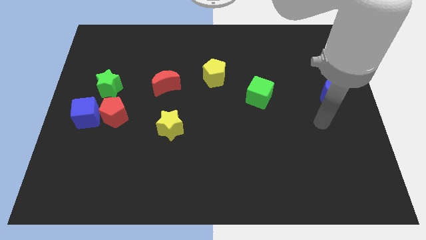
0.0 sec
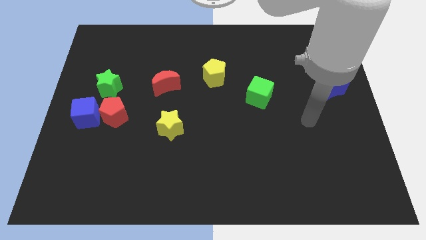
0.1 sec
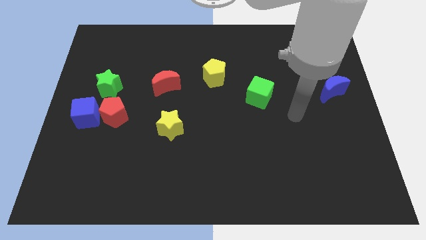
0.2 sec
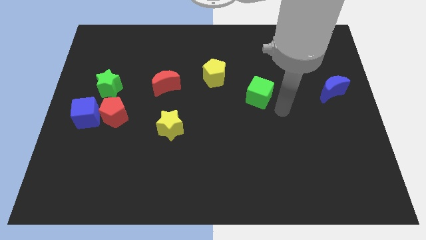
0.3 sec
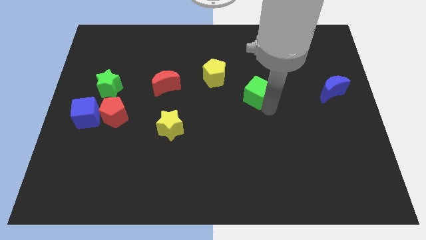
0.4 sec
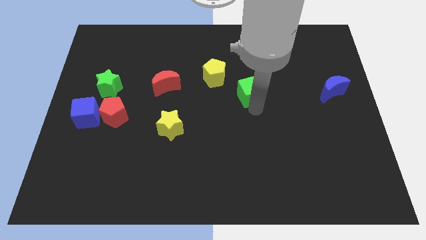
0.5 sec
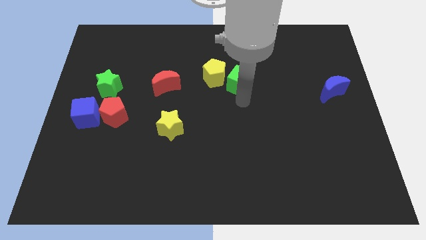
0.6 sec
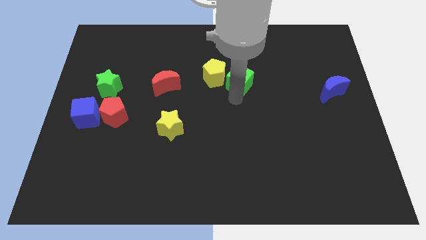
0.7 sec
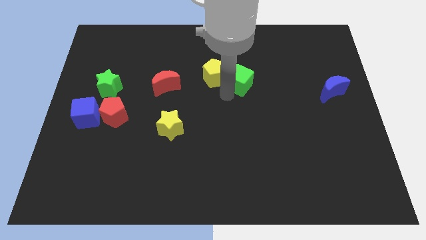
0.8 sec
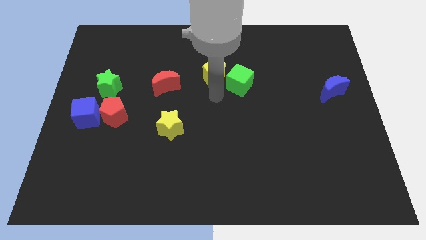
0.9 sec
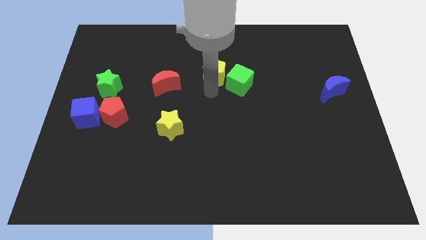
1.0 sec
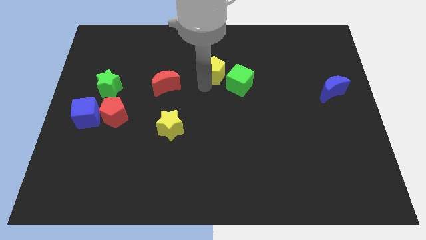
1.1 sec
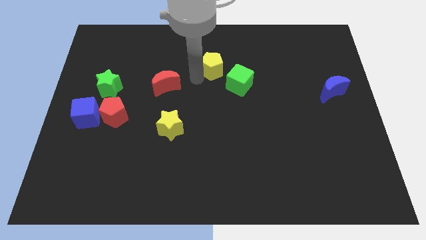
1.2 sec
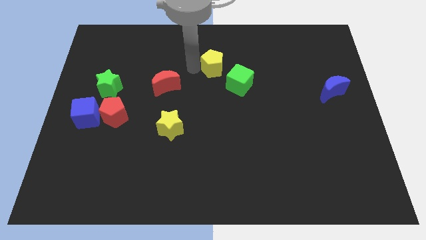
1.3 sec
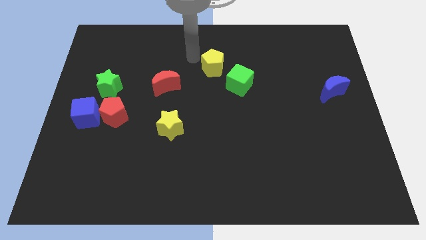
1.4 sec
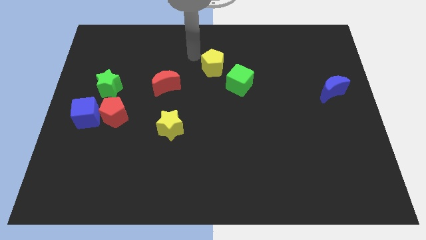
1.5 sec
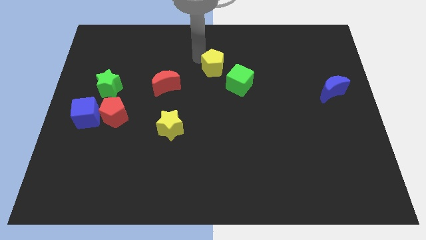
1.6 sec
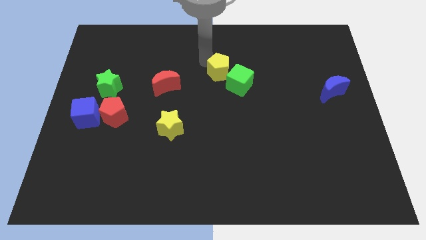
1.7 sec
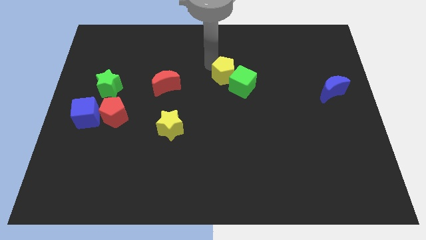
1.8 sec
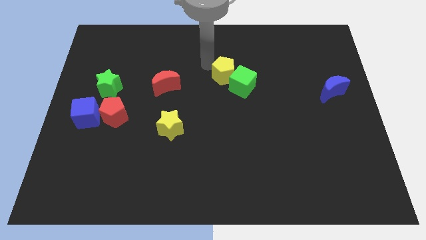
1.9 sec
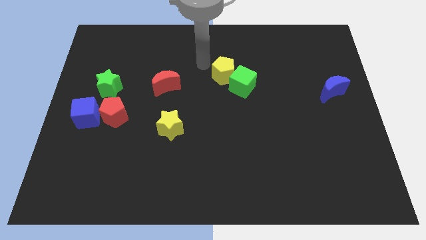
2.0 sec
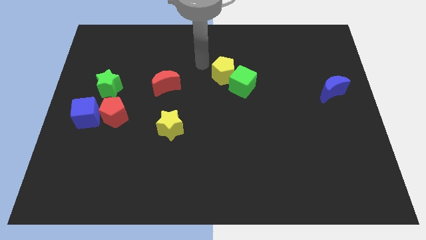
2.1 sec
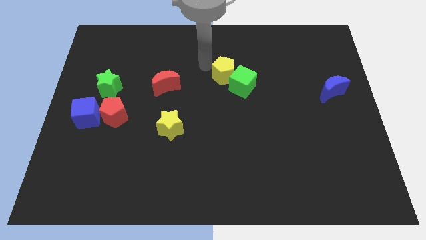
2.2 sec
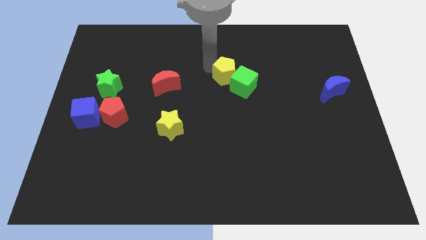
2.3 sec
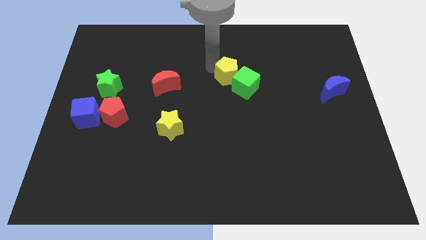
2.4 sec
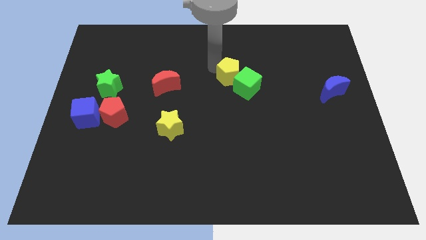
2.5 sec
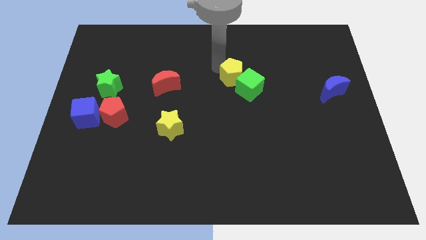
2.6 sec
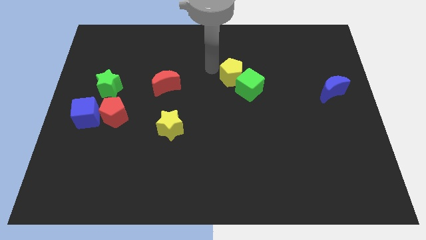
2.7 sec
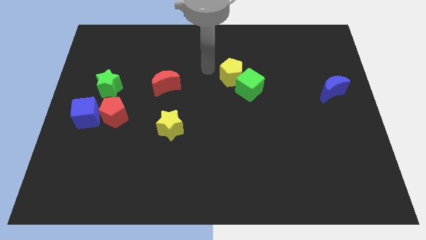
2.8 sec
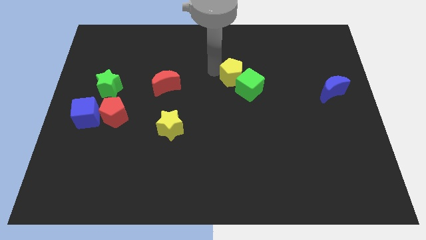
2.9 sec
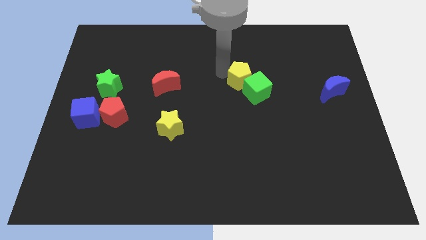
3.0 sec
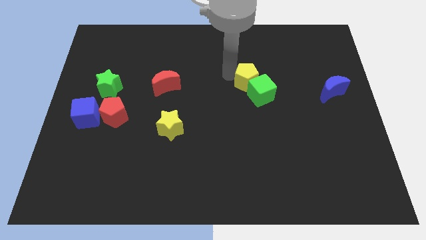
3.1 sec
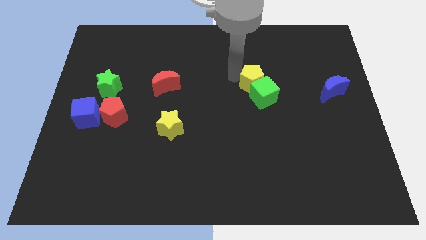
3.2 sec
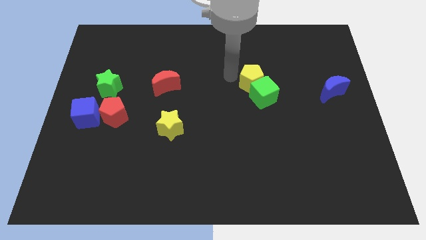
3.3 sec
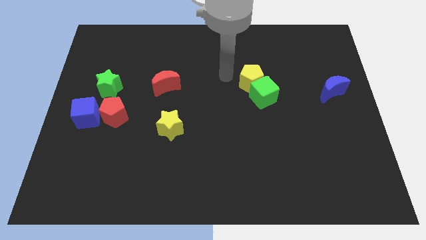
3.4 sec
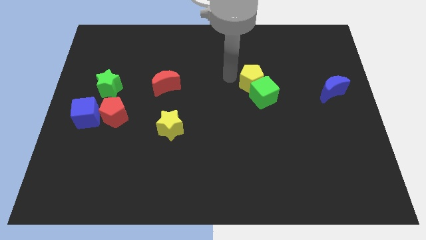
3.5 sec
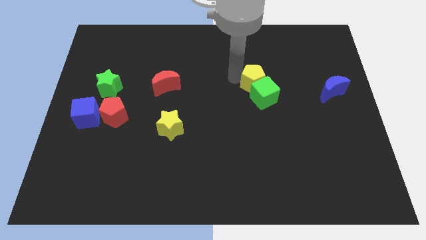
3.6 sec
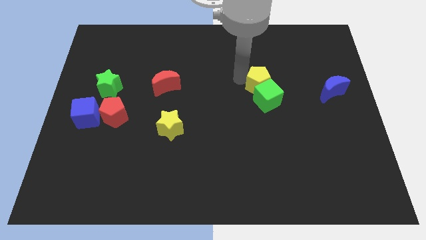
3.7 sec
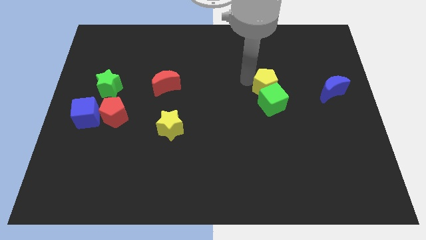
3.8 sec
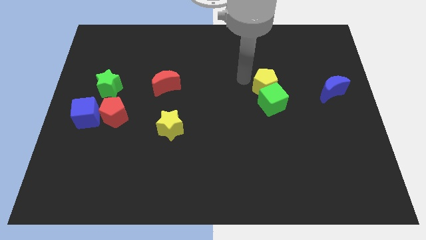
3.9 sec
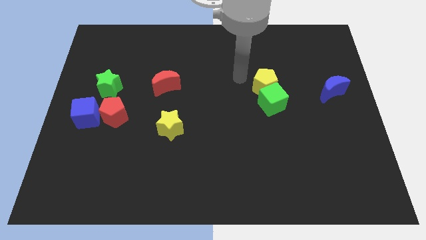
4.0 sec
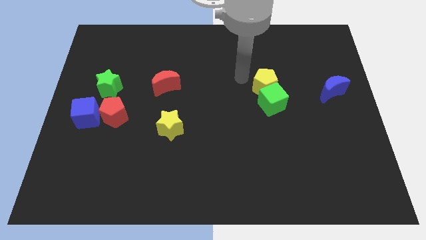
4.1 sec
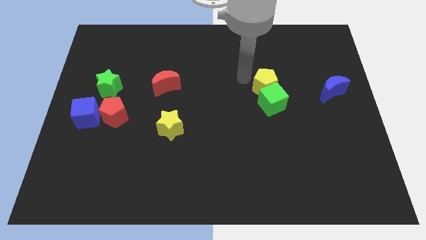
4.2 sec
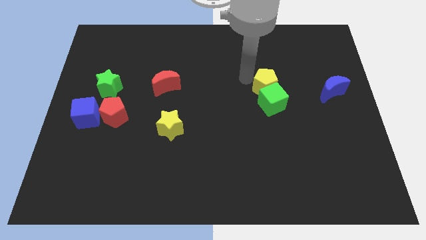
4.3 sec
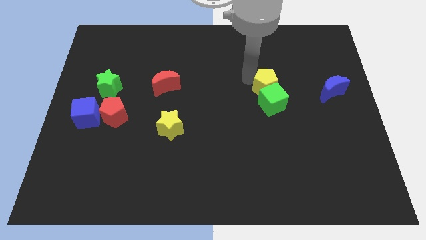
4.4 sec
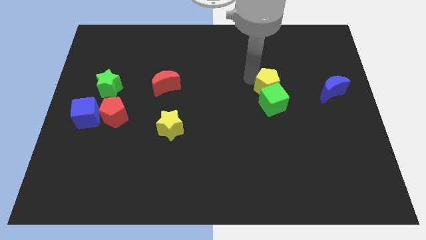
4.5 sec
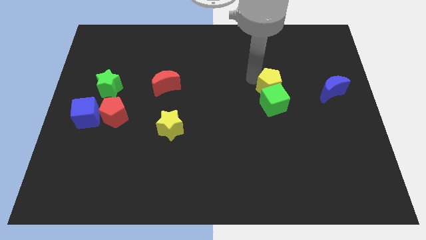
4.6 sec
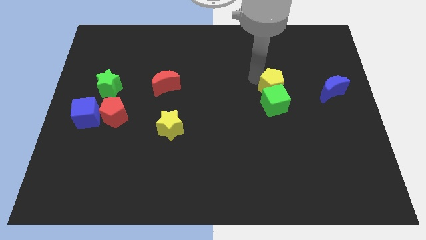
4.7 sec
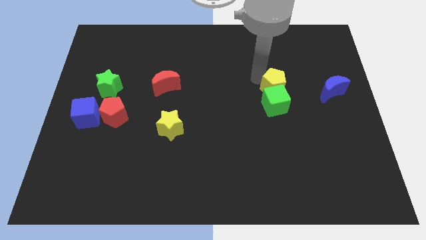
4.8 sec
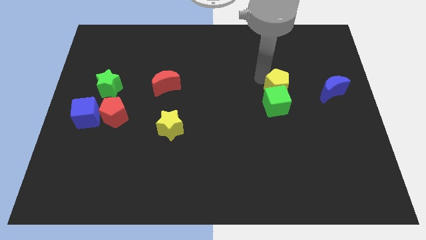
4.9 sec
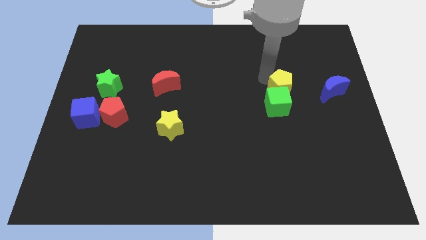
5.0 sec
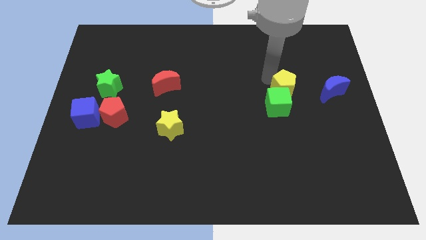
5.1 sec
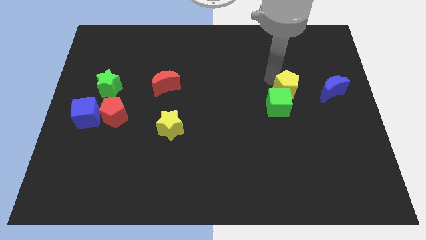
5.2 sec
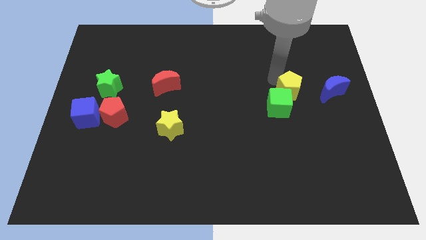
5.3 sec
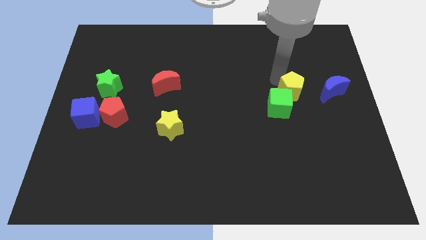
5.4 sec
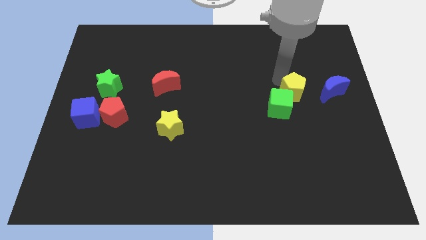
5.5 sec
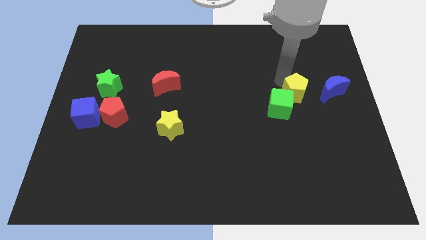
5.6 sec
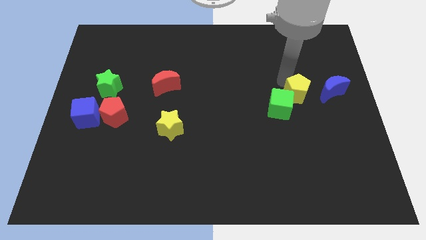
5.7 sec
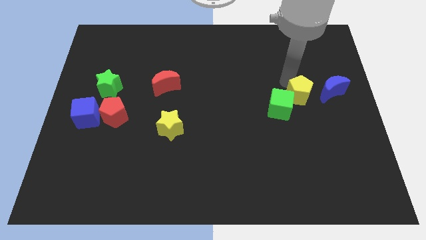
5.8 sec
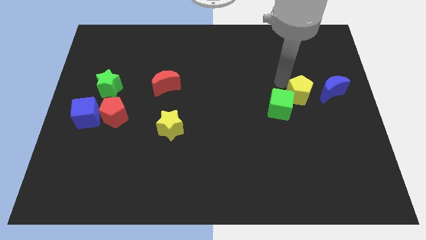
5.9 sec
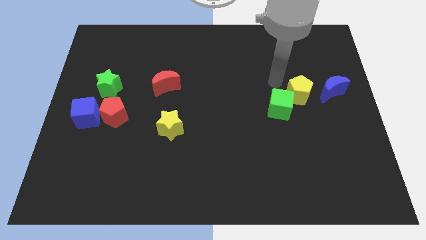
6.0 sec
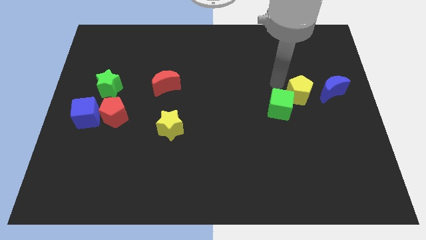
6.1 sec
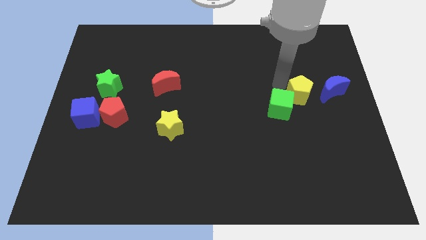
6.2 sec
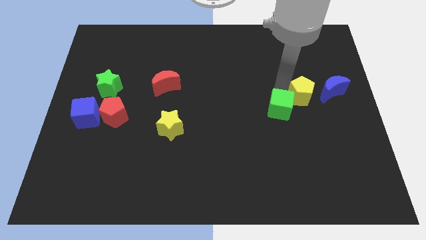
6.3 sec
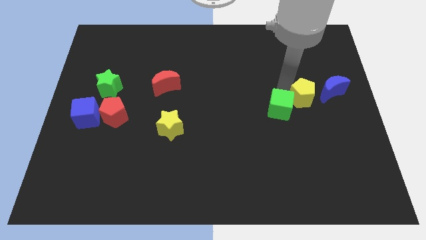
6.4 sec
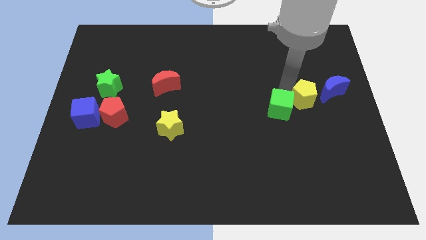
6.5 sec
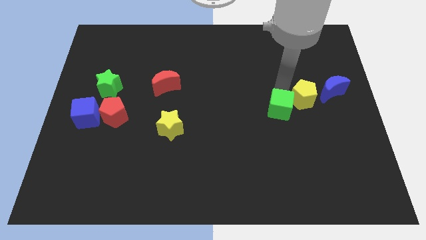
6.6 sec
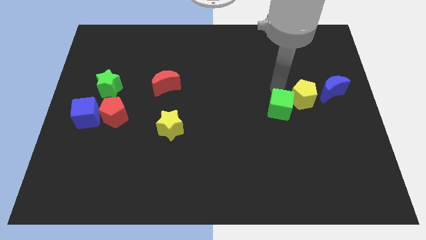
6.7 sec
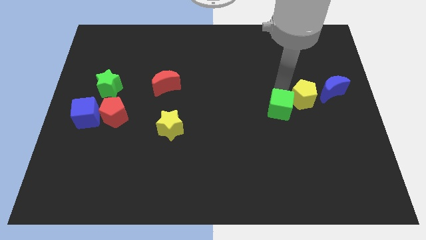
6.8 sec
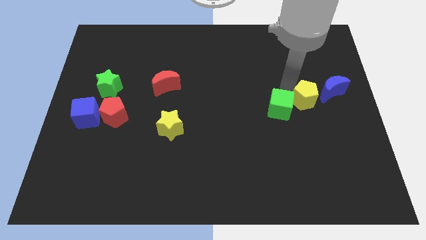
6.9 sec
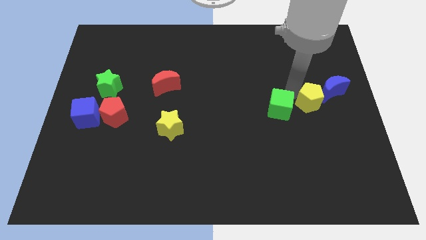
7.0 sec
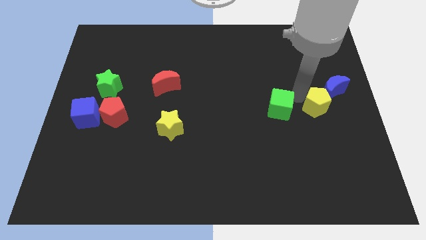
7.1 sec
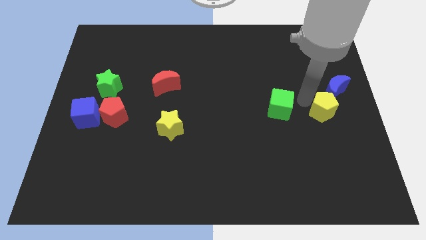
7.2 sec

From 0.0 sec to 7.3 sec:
move the yellow pentagon to the right side
